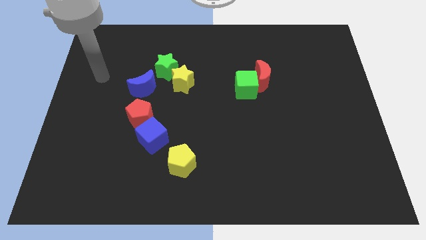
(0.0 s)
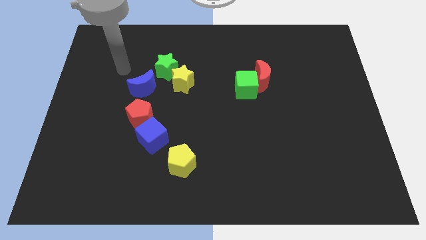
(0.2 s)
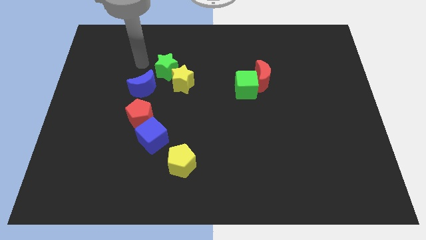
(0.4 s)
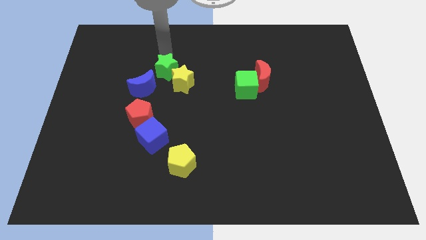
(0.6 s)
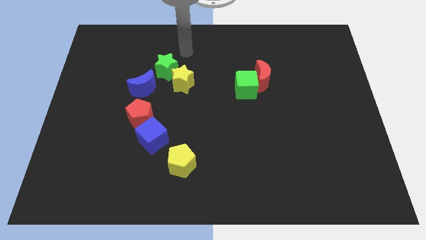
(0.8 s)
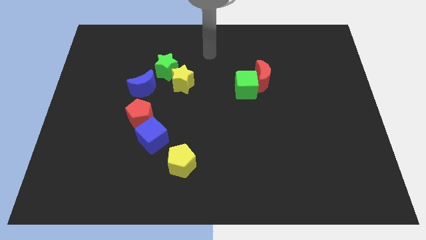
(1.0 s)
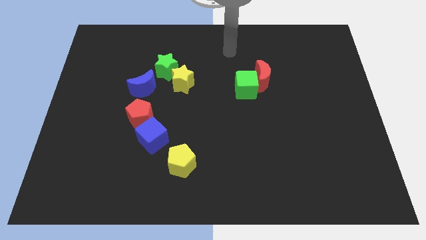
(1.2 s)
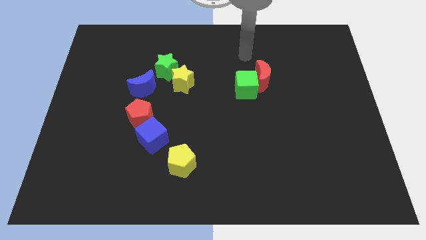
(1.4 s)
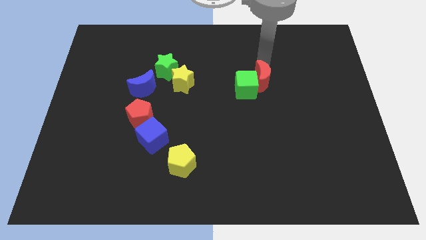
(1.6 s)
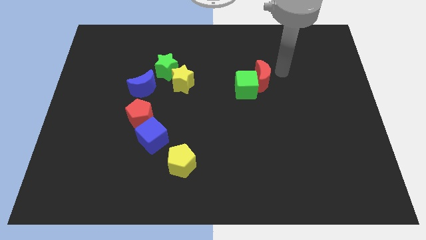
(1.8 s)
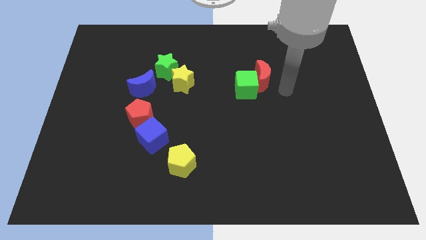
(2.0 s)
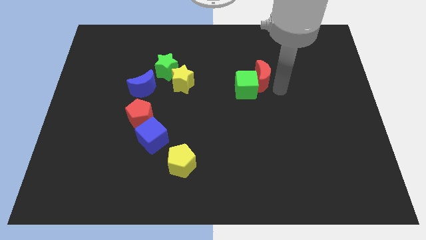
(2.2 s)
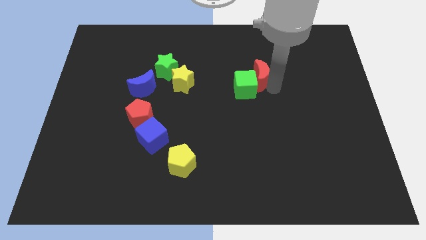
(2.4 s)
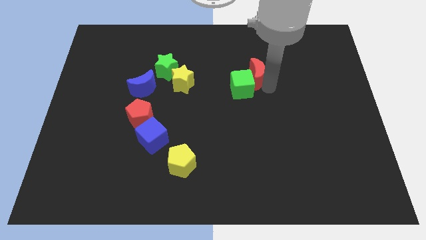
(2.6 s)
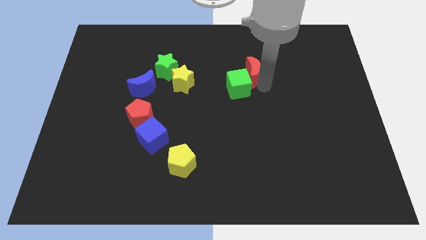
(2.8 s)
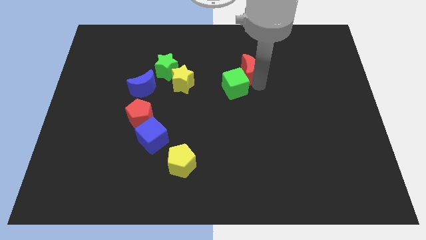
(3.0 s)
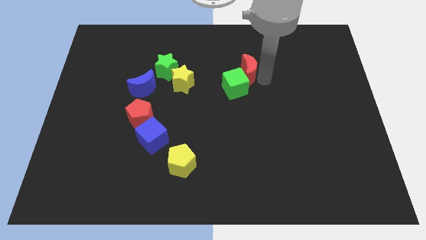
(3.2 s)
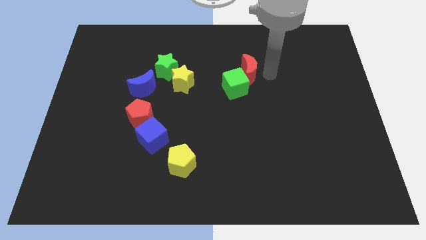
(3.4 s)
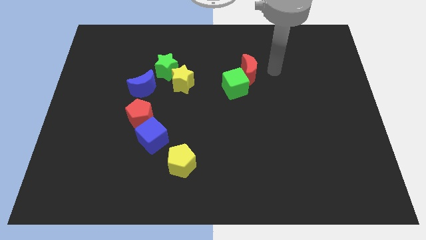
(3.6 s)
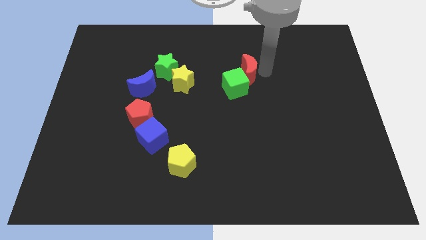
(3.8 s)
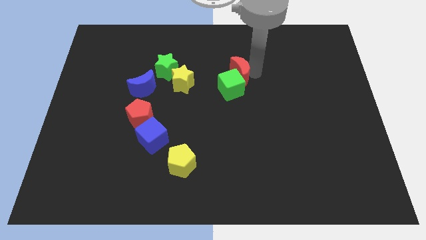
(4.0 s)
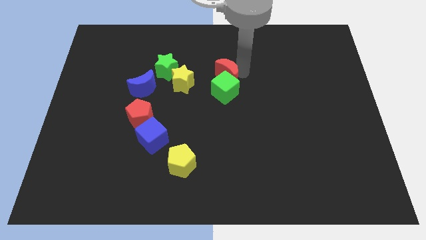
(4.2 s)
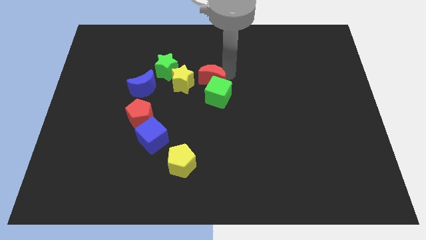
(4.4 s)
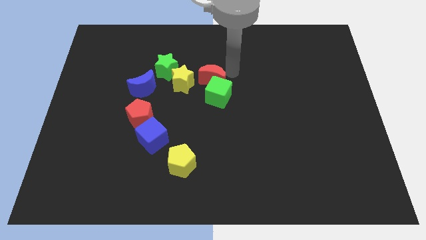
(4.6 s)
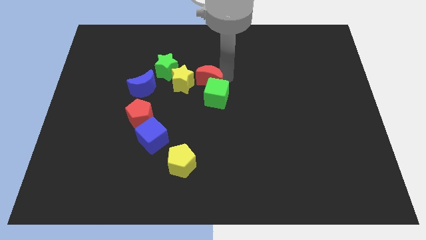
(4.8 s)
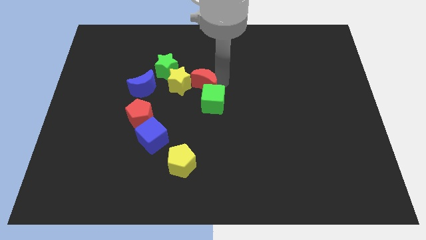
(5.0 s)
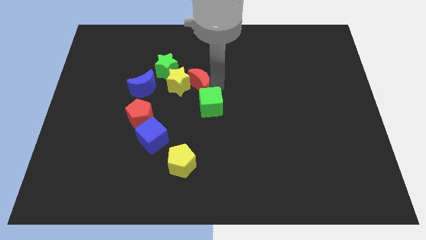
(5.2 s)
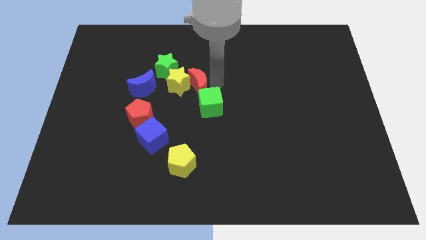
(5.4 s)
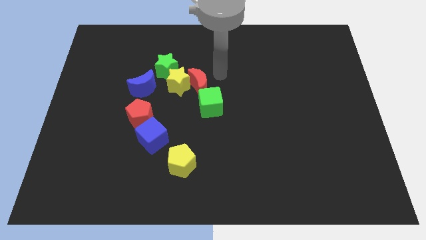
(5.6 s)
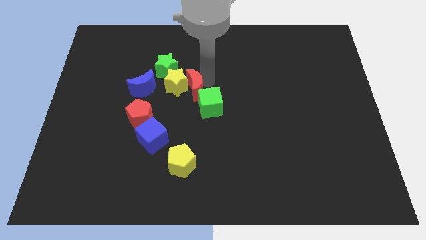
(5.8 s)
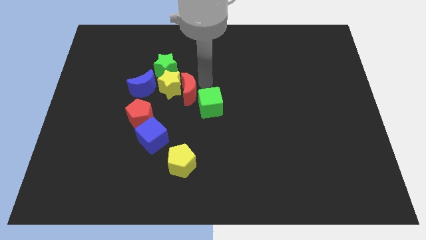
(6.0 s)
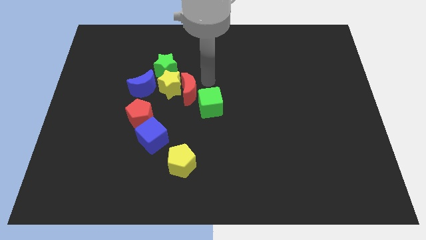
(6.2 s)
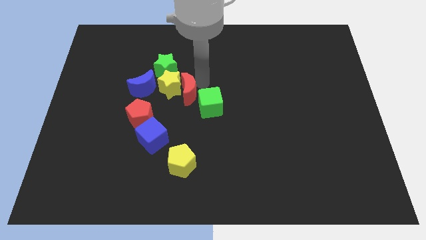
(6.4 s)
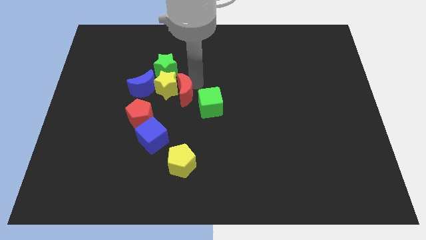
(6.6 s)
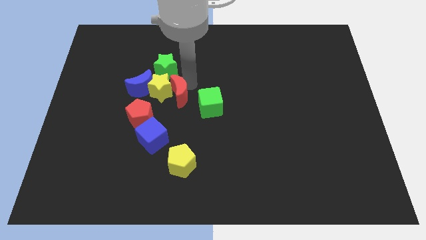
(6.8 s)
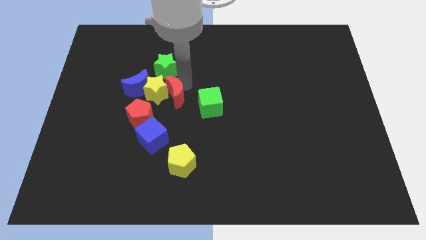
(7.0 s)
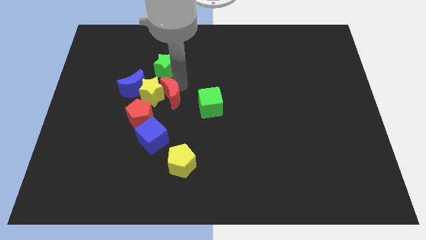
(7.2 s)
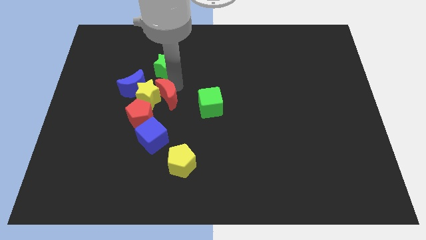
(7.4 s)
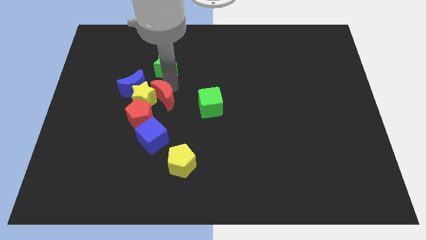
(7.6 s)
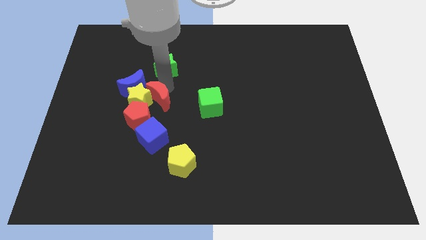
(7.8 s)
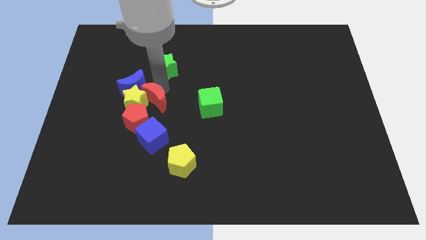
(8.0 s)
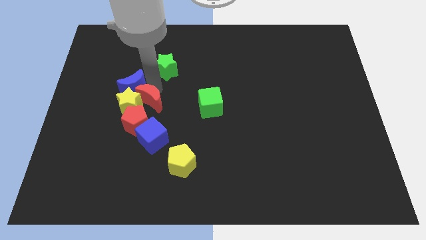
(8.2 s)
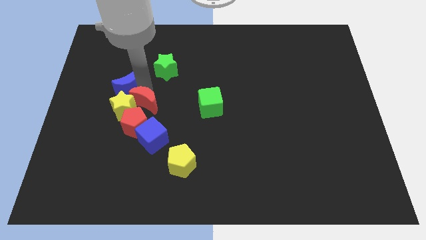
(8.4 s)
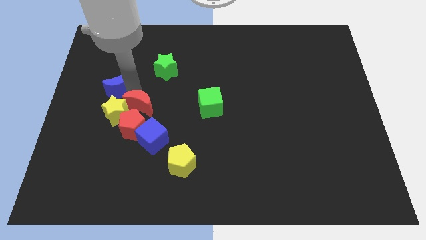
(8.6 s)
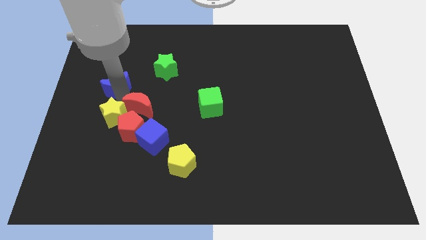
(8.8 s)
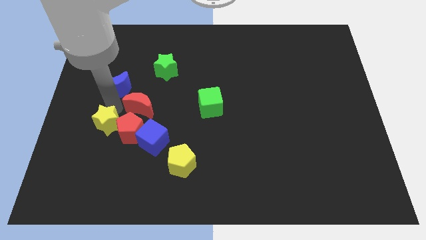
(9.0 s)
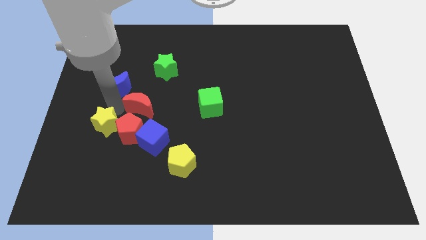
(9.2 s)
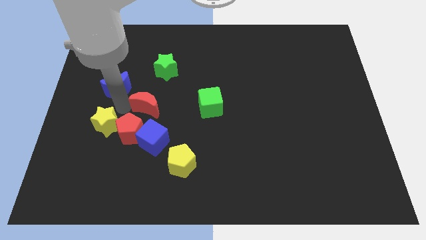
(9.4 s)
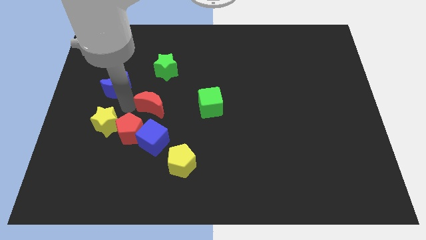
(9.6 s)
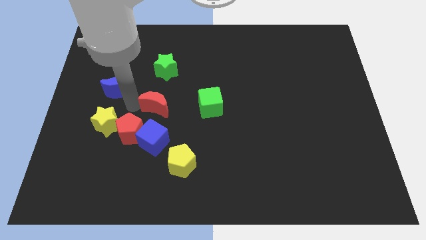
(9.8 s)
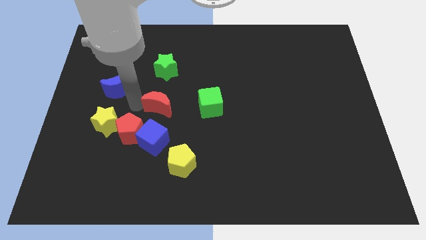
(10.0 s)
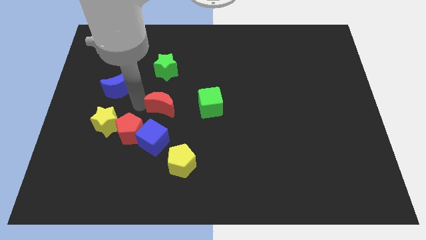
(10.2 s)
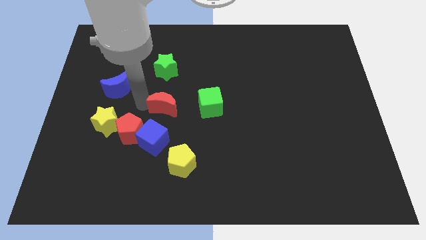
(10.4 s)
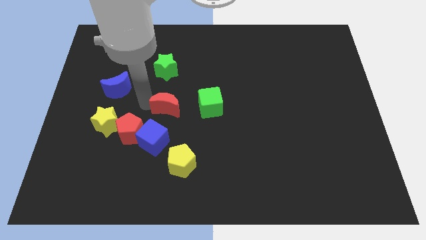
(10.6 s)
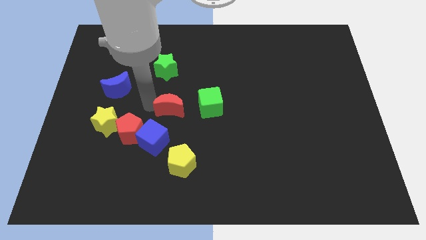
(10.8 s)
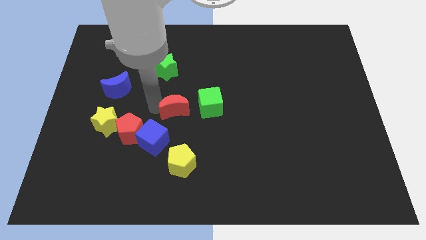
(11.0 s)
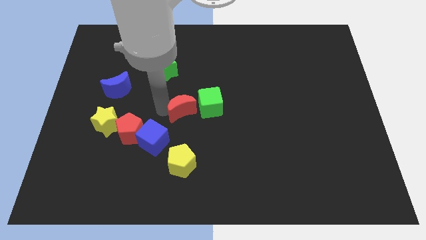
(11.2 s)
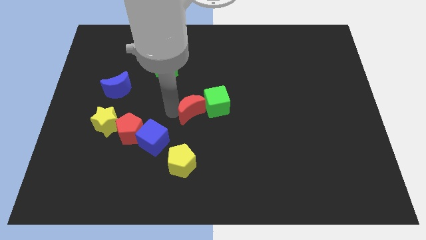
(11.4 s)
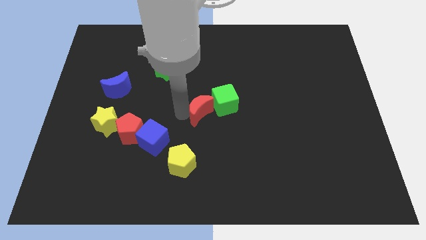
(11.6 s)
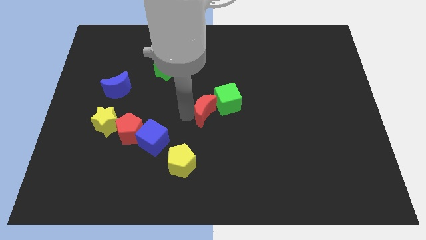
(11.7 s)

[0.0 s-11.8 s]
put the red moon left of the green cube

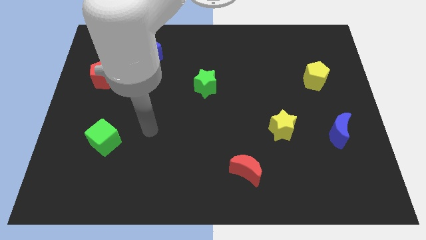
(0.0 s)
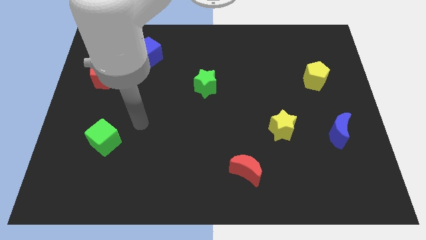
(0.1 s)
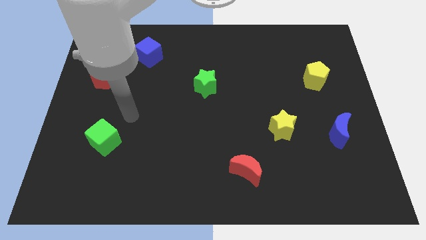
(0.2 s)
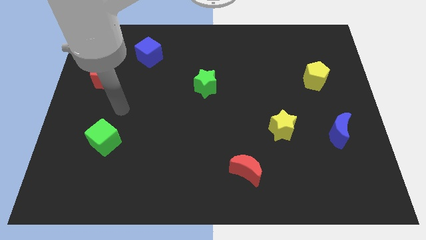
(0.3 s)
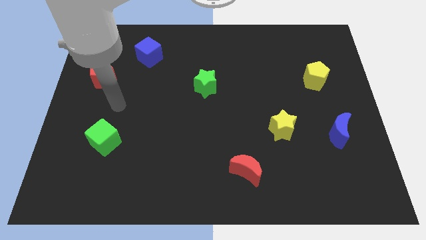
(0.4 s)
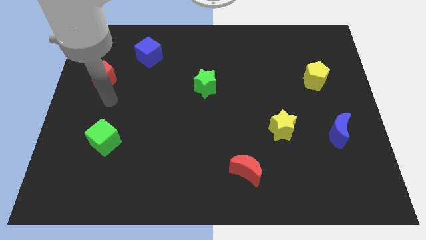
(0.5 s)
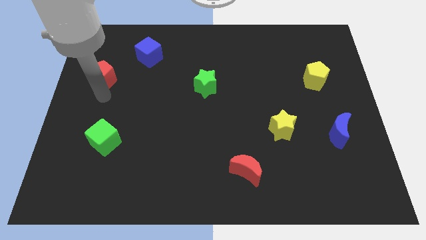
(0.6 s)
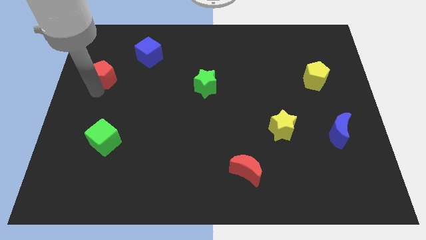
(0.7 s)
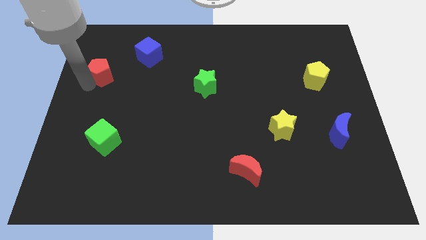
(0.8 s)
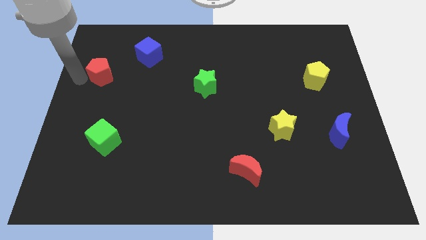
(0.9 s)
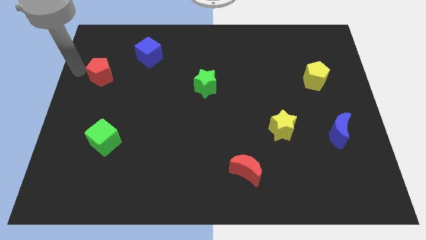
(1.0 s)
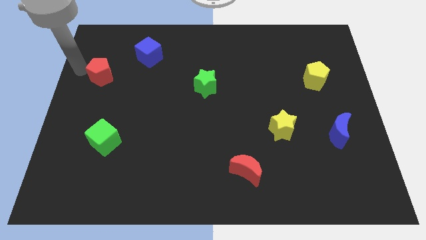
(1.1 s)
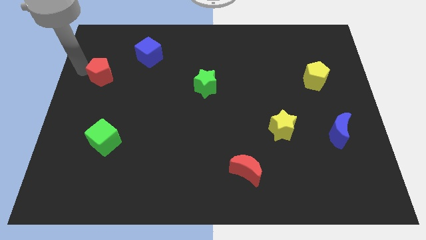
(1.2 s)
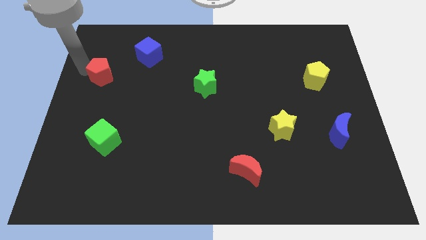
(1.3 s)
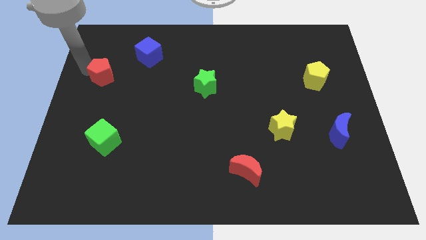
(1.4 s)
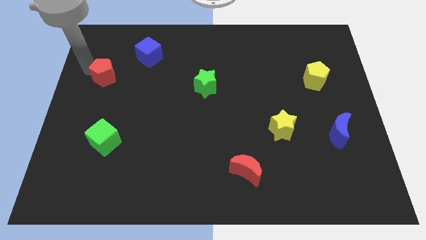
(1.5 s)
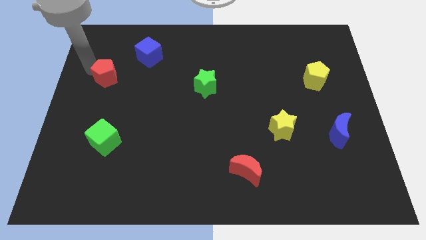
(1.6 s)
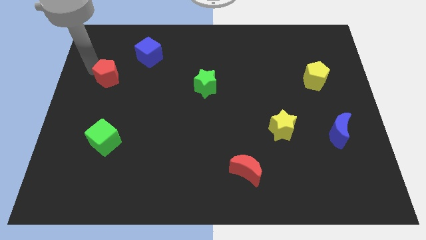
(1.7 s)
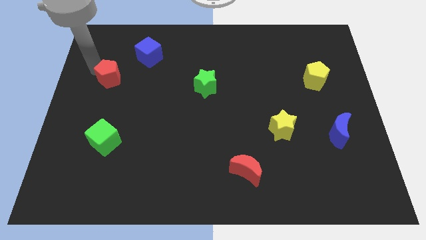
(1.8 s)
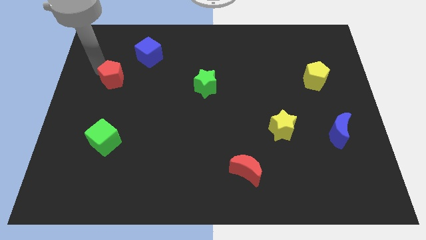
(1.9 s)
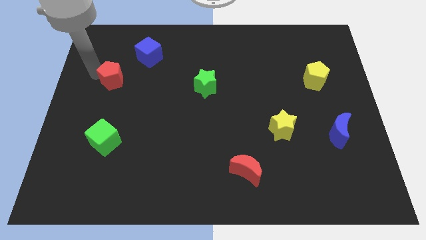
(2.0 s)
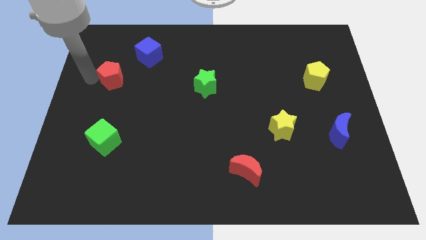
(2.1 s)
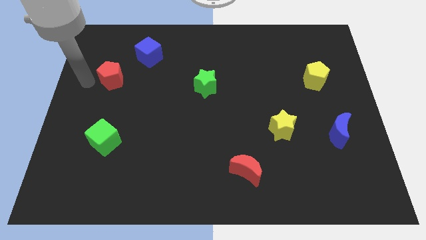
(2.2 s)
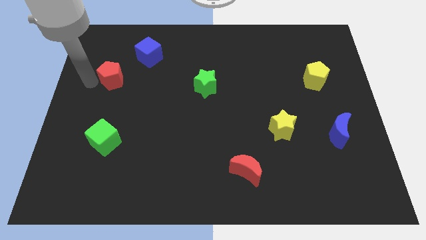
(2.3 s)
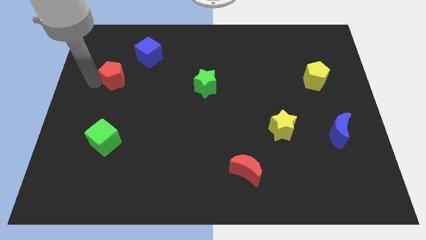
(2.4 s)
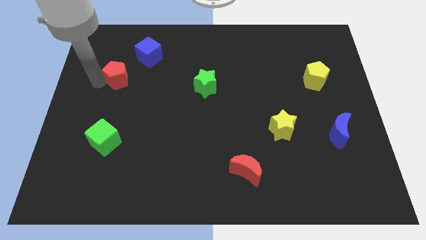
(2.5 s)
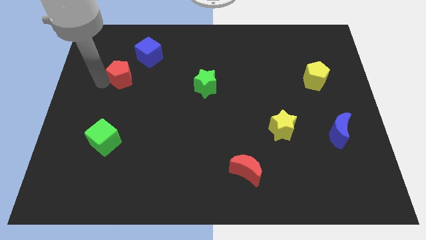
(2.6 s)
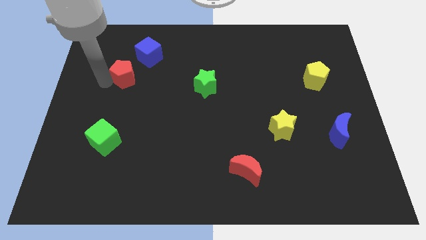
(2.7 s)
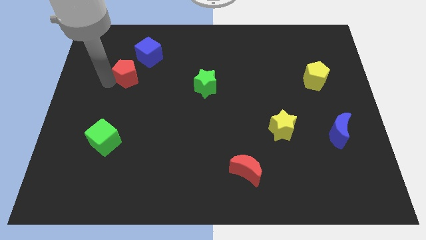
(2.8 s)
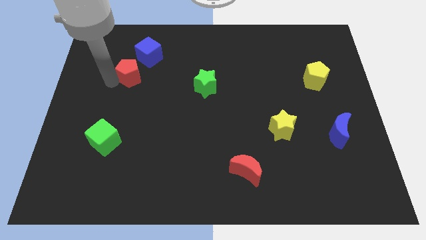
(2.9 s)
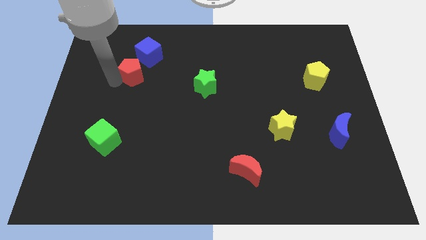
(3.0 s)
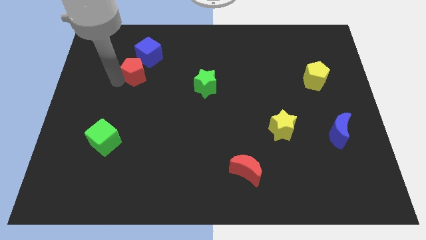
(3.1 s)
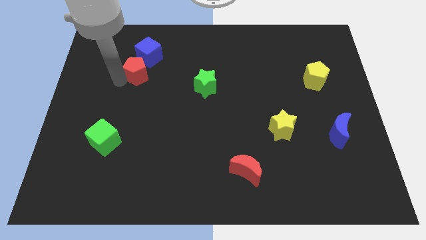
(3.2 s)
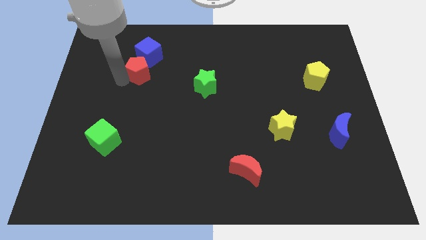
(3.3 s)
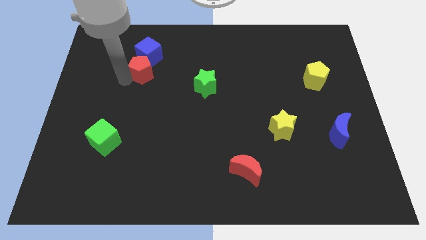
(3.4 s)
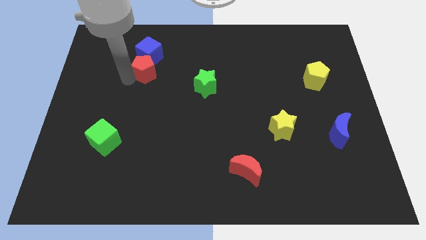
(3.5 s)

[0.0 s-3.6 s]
move the red pentagon diagonally down and to the right of the blue cube
